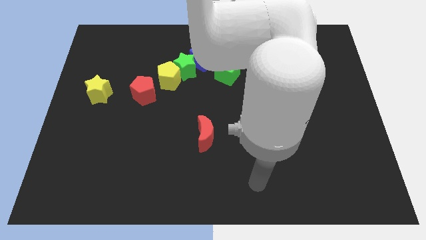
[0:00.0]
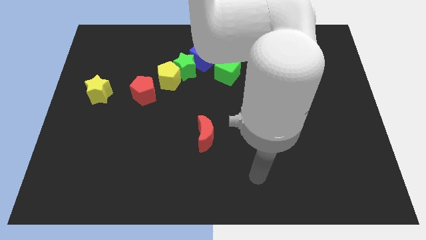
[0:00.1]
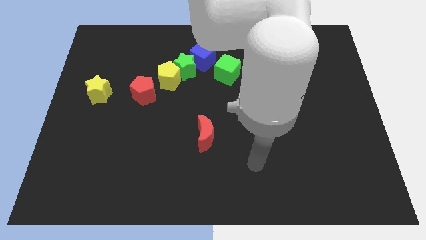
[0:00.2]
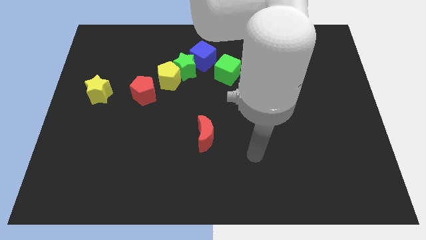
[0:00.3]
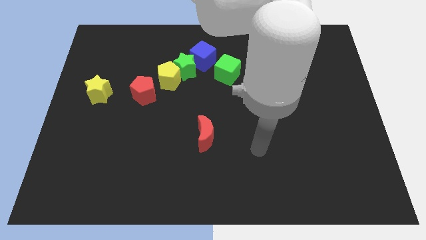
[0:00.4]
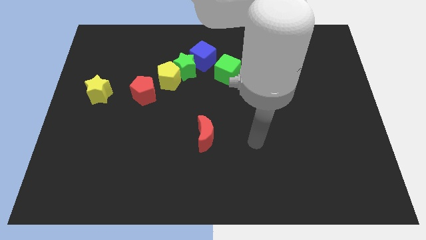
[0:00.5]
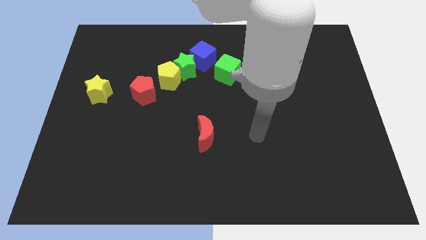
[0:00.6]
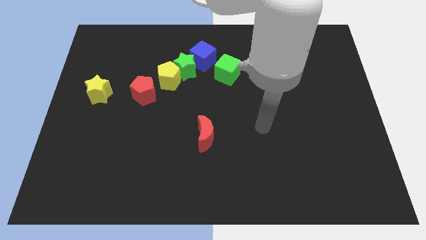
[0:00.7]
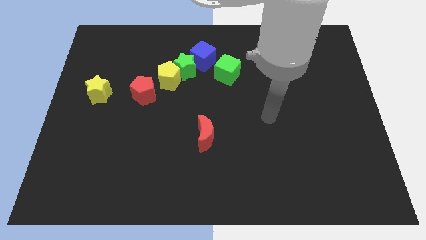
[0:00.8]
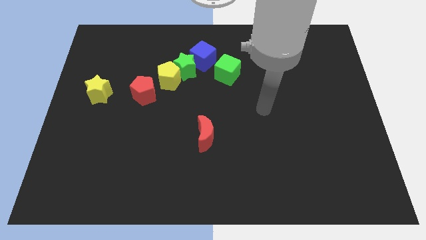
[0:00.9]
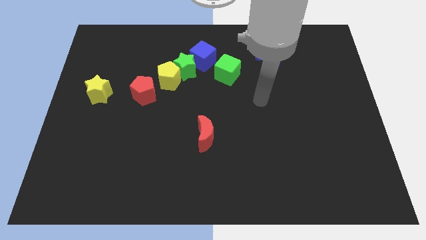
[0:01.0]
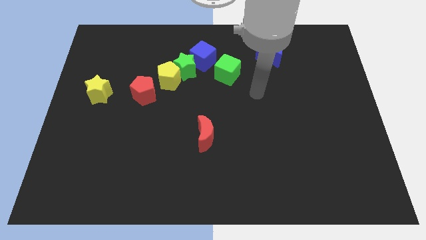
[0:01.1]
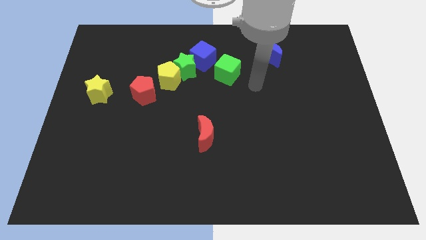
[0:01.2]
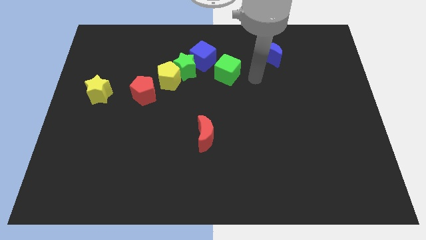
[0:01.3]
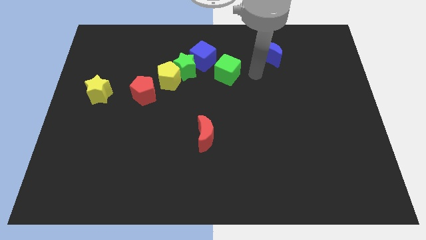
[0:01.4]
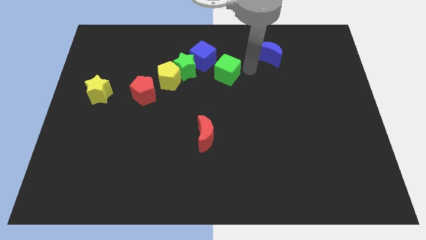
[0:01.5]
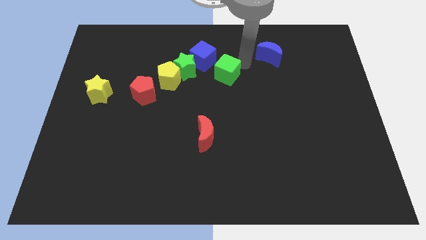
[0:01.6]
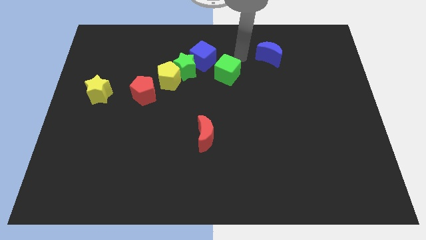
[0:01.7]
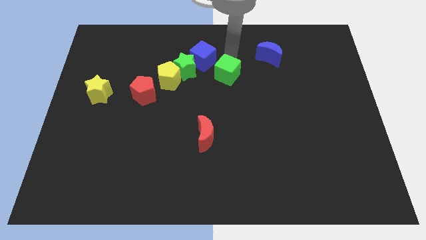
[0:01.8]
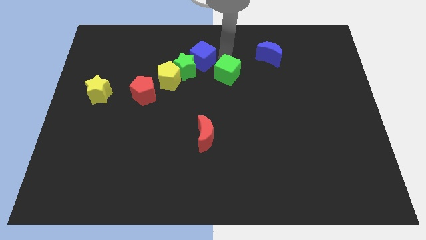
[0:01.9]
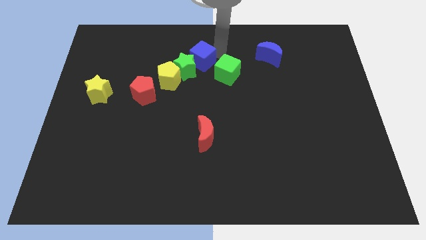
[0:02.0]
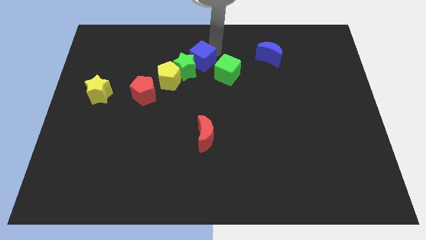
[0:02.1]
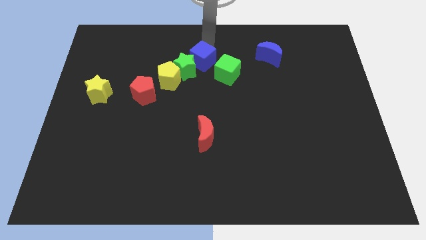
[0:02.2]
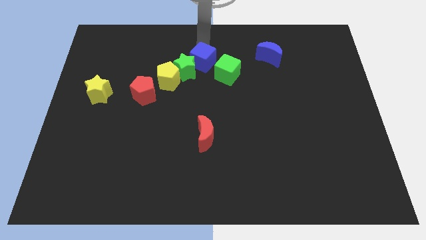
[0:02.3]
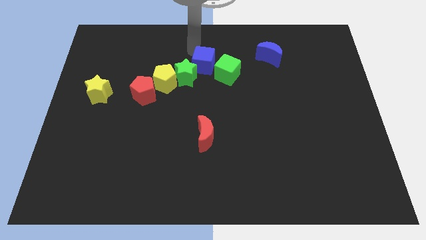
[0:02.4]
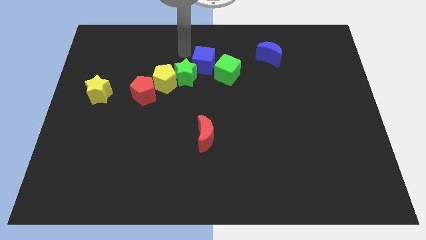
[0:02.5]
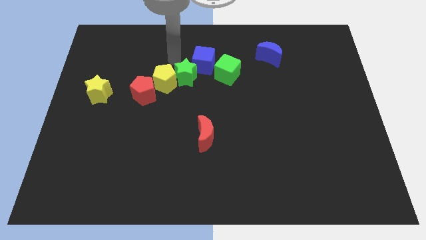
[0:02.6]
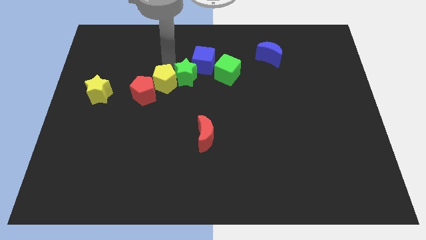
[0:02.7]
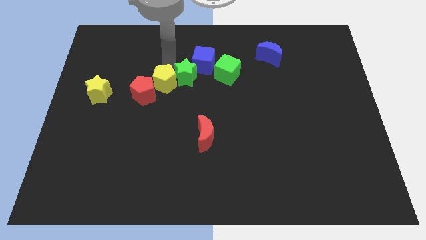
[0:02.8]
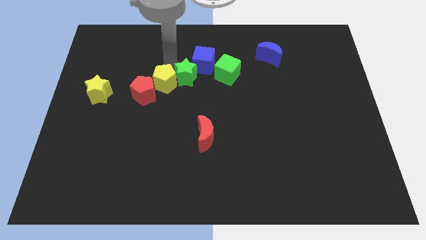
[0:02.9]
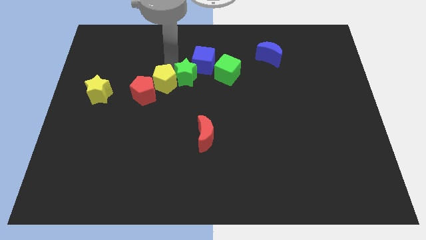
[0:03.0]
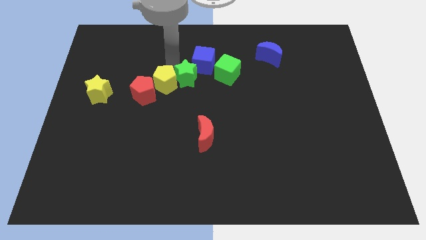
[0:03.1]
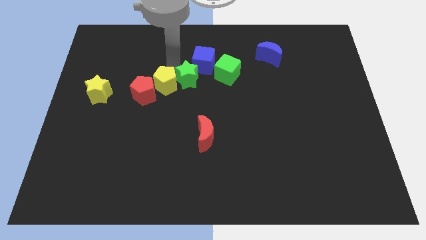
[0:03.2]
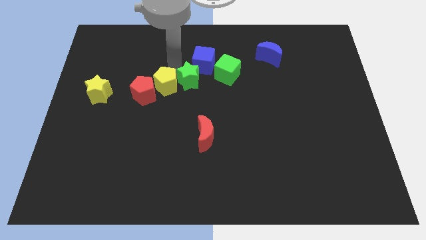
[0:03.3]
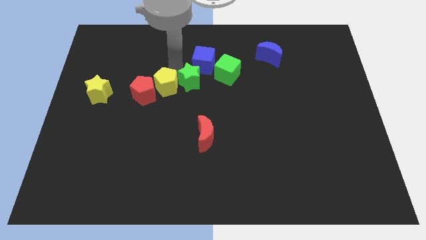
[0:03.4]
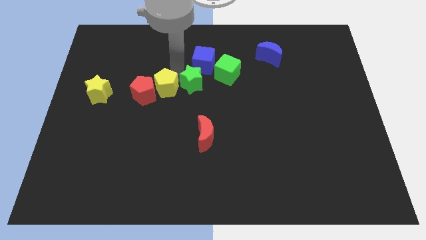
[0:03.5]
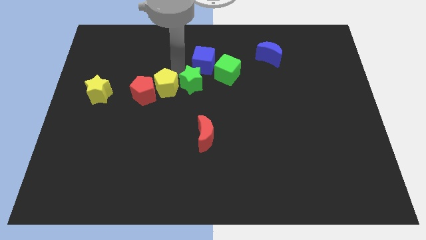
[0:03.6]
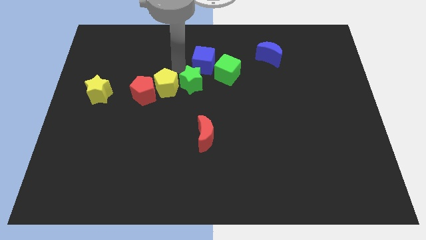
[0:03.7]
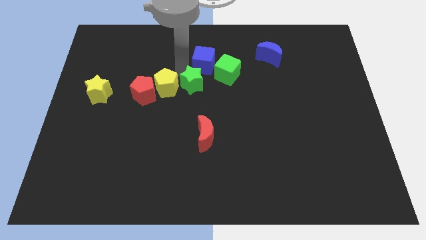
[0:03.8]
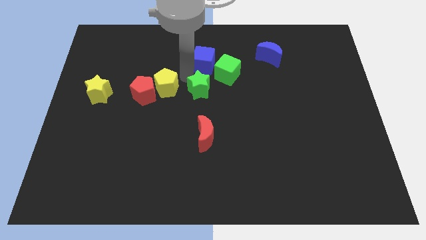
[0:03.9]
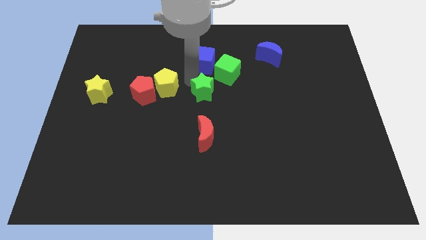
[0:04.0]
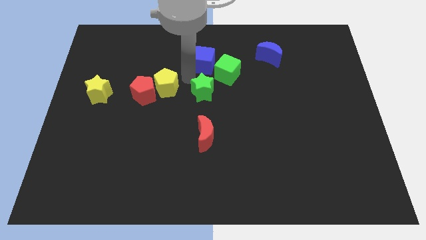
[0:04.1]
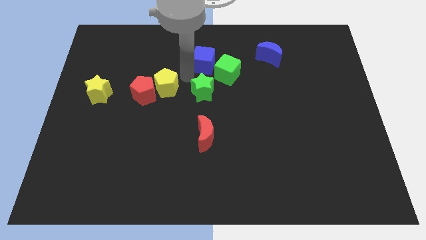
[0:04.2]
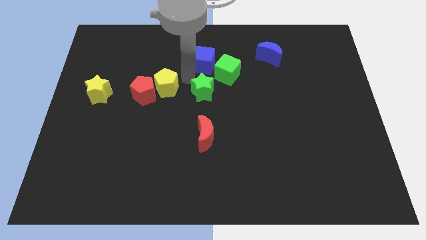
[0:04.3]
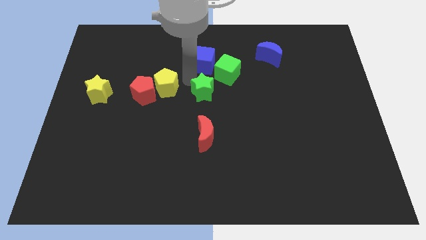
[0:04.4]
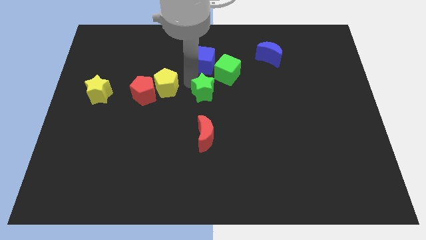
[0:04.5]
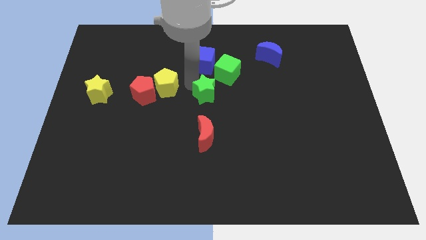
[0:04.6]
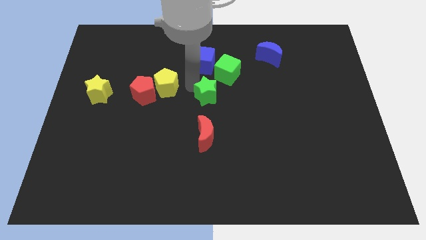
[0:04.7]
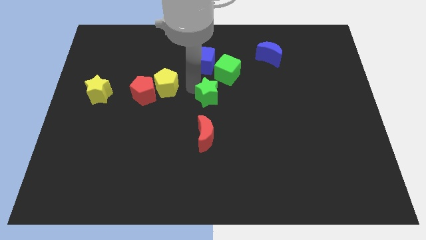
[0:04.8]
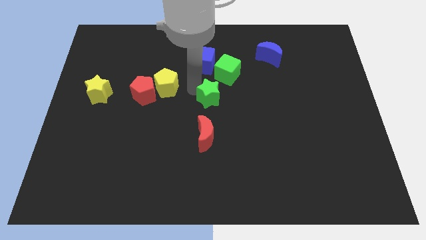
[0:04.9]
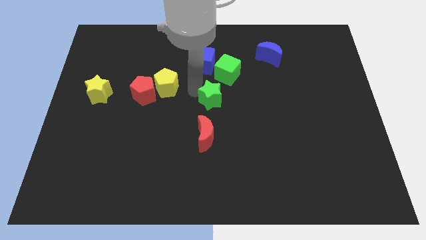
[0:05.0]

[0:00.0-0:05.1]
pull the green star apart from the yellow pentagon and blue cube

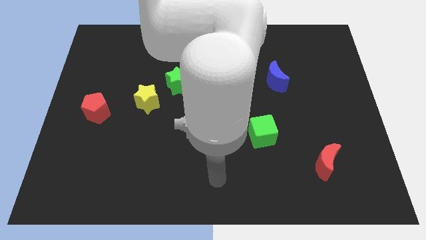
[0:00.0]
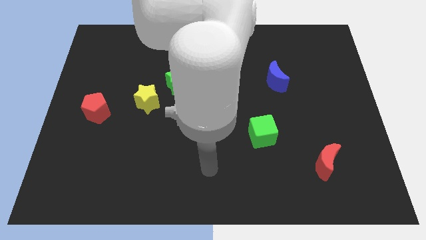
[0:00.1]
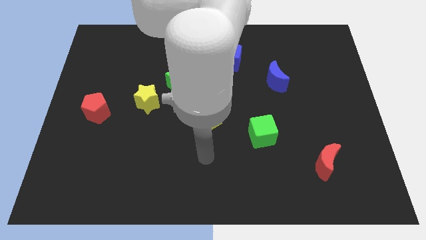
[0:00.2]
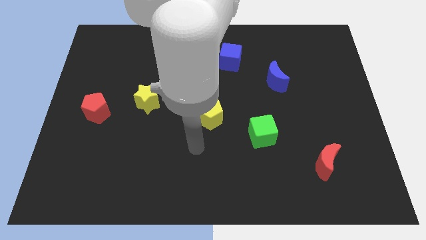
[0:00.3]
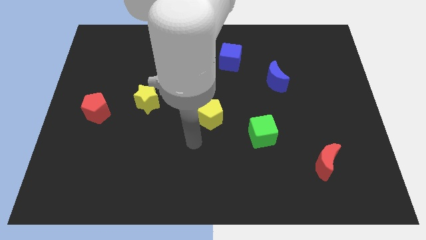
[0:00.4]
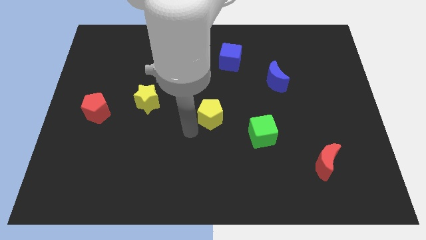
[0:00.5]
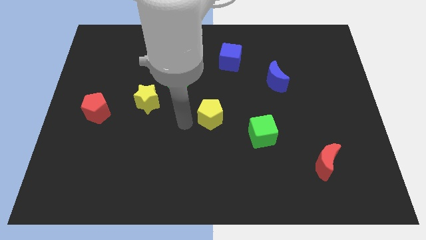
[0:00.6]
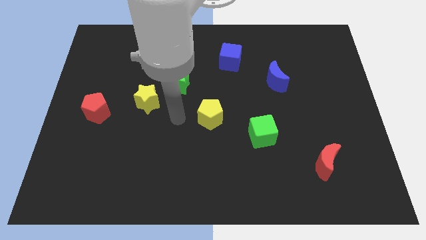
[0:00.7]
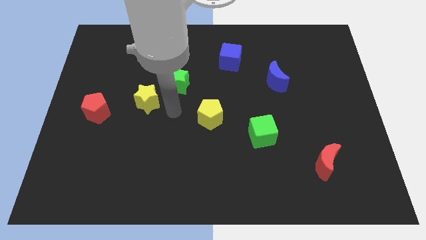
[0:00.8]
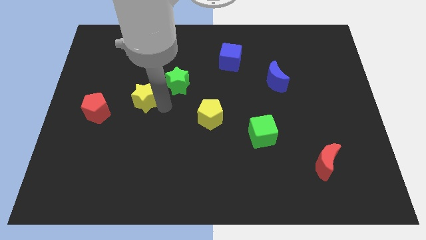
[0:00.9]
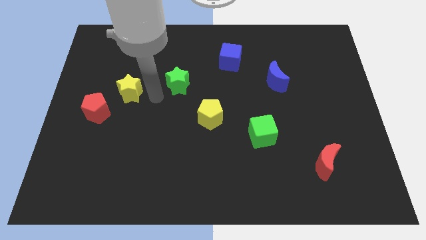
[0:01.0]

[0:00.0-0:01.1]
move the green star away from the yellow star

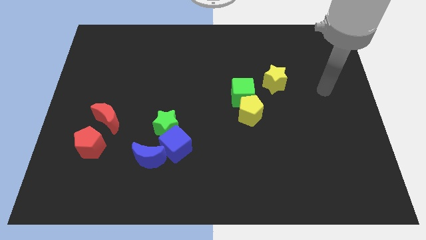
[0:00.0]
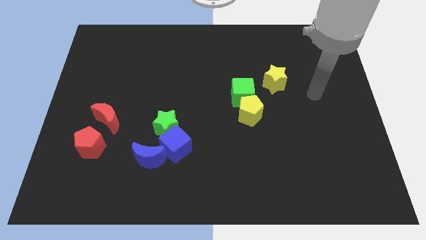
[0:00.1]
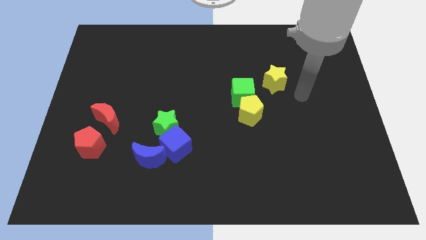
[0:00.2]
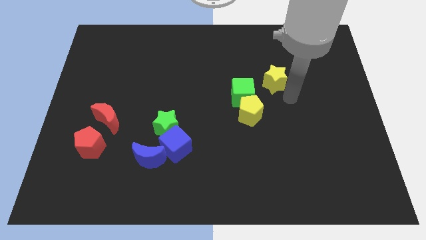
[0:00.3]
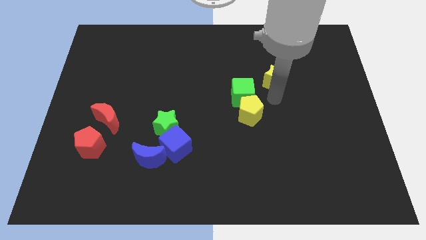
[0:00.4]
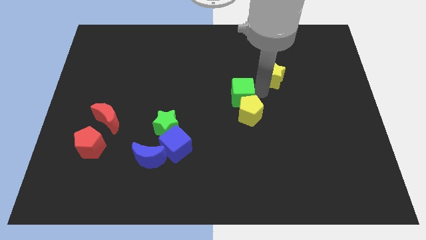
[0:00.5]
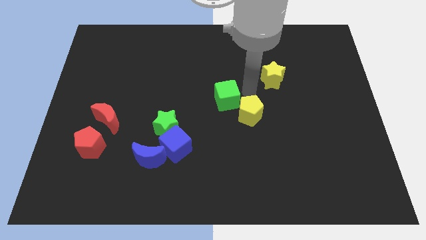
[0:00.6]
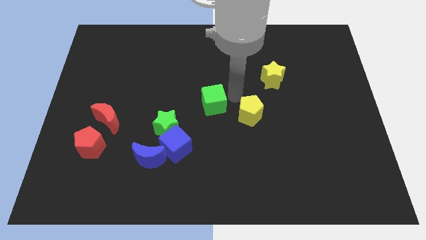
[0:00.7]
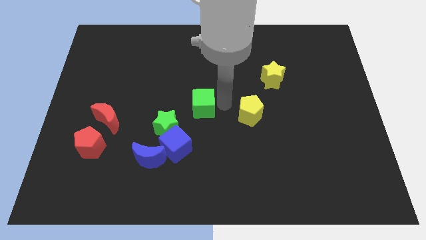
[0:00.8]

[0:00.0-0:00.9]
separate the yellow pentagon from the green cube

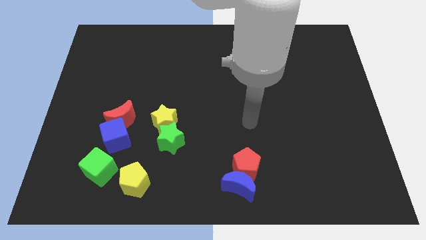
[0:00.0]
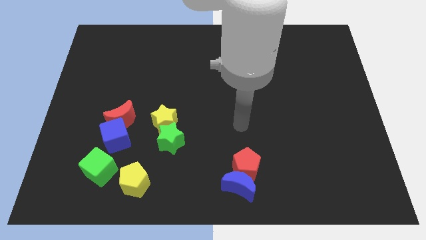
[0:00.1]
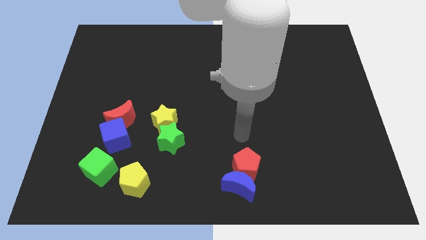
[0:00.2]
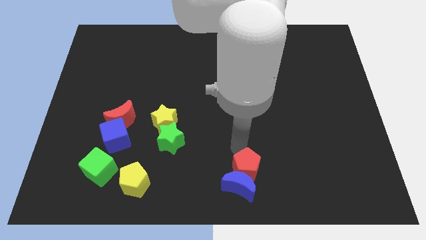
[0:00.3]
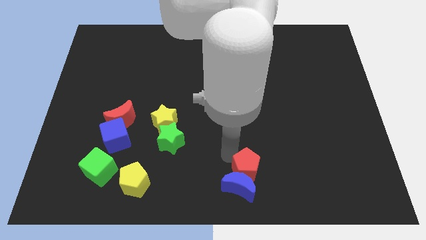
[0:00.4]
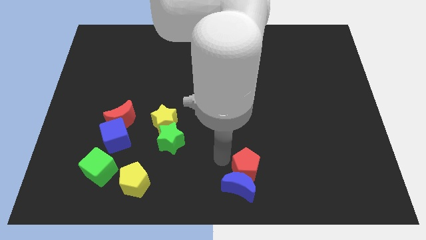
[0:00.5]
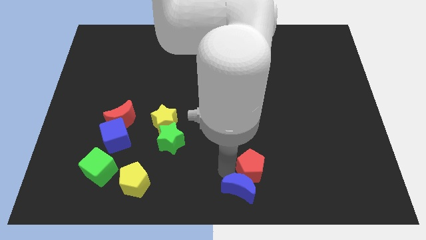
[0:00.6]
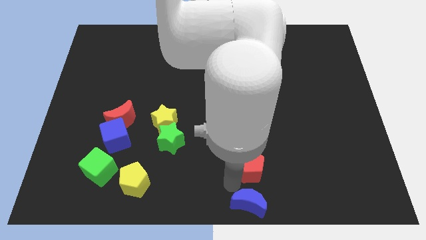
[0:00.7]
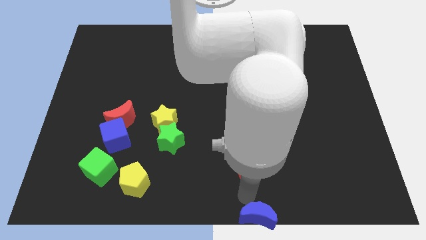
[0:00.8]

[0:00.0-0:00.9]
pull the red pentagon apart from the blue moon

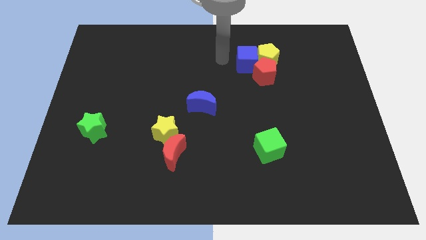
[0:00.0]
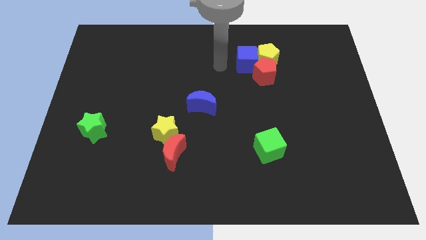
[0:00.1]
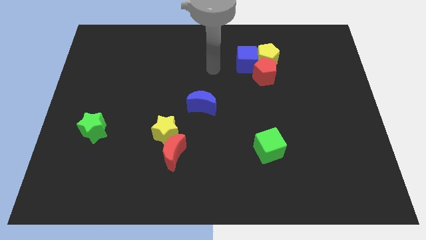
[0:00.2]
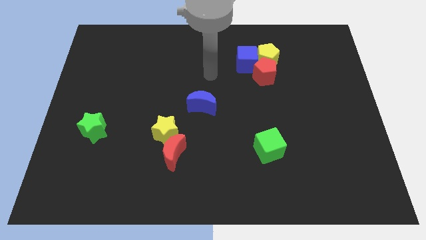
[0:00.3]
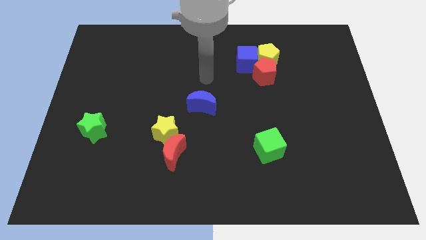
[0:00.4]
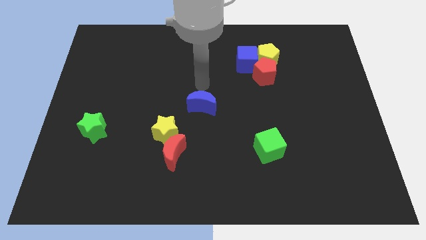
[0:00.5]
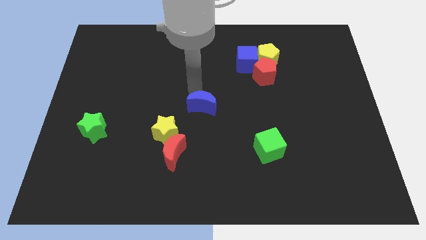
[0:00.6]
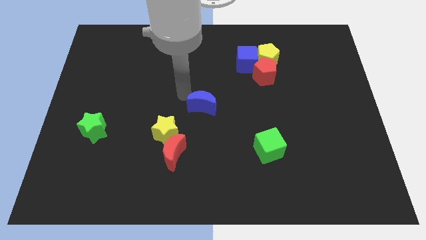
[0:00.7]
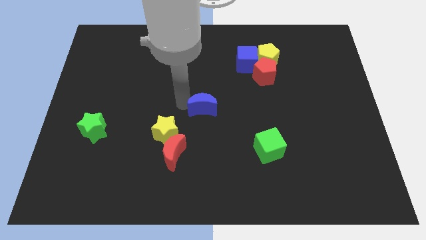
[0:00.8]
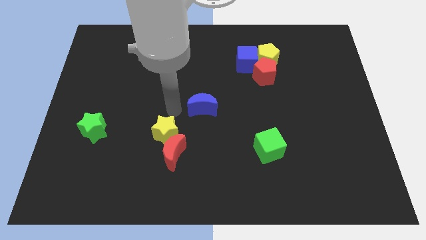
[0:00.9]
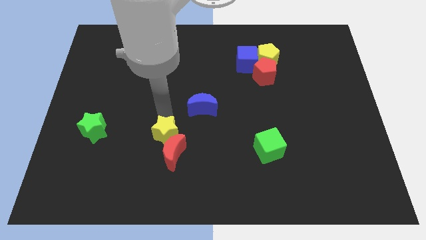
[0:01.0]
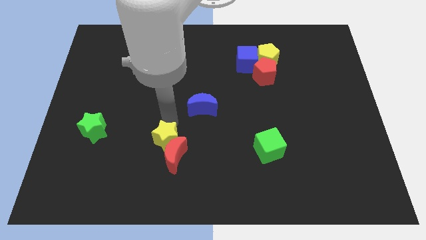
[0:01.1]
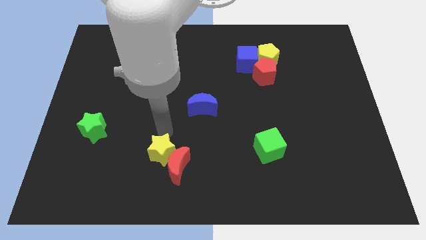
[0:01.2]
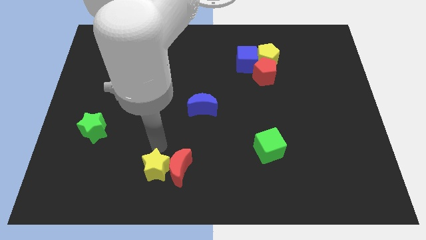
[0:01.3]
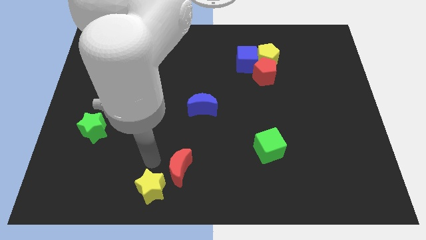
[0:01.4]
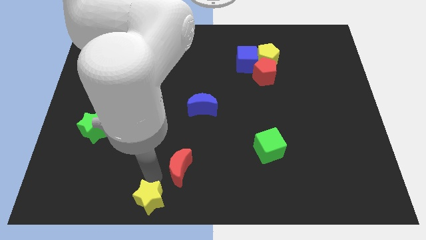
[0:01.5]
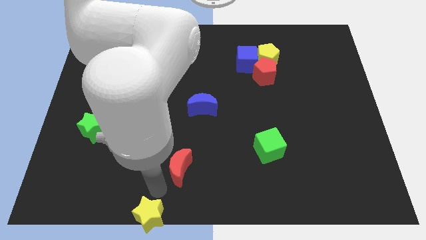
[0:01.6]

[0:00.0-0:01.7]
pull the red moon apart from the yellow star
